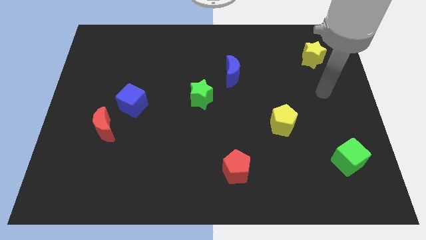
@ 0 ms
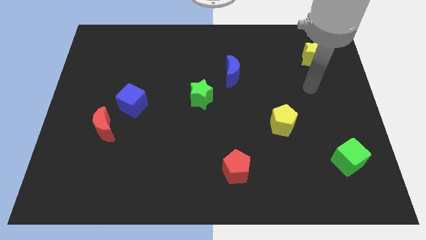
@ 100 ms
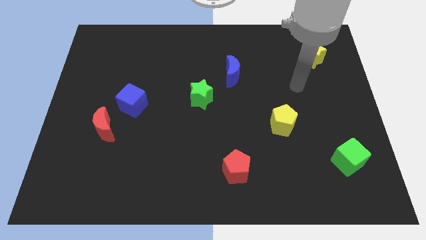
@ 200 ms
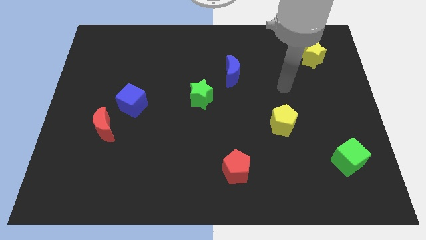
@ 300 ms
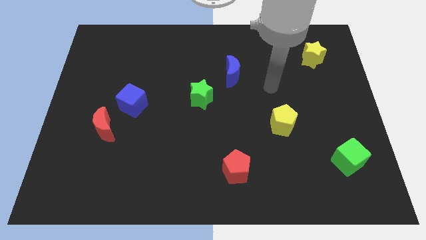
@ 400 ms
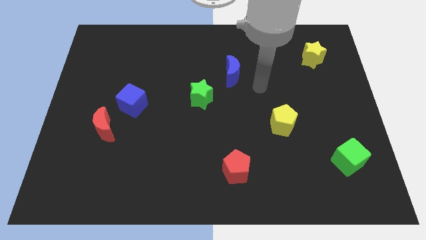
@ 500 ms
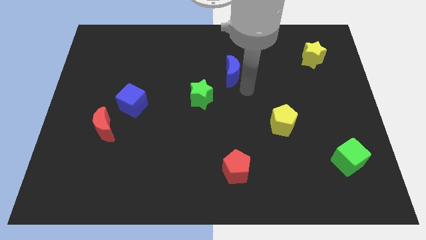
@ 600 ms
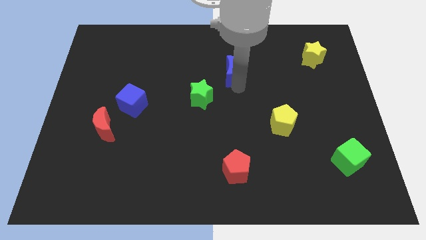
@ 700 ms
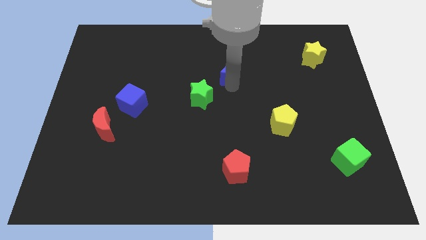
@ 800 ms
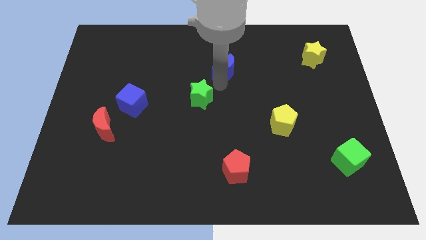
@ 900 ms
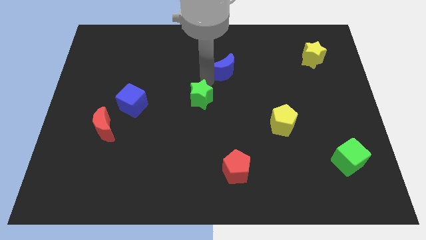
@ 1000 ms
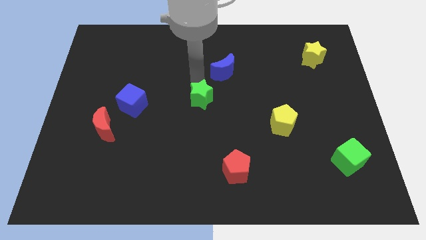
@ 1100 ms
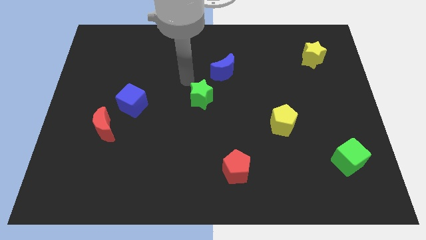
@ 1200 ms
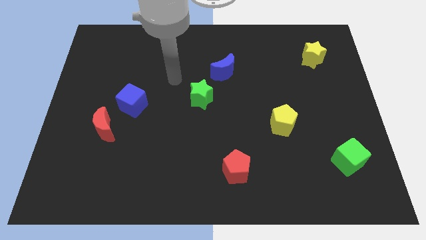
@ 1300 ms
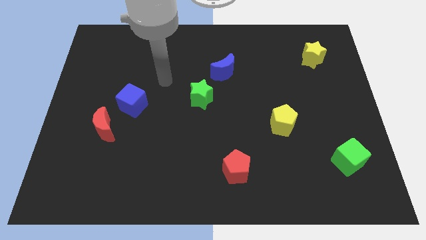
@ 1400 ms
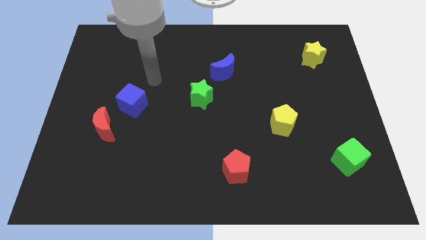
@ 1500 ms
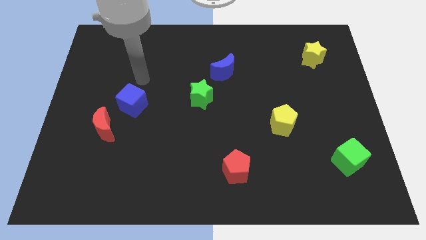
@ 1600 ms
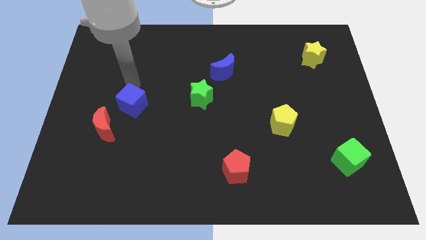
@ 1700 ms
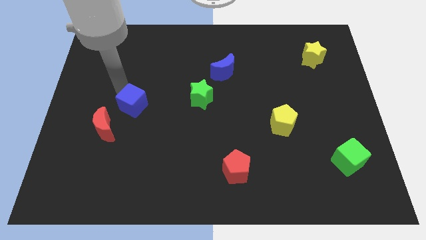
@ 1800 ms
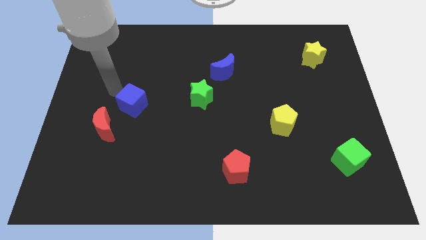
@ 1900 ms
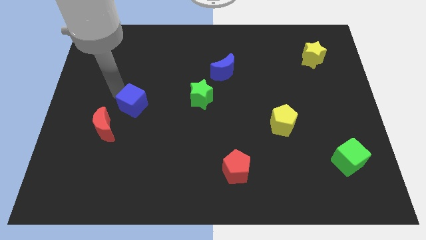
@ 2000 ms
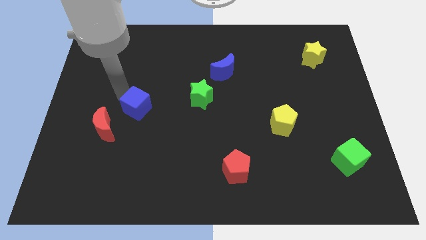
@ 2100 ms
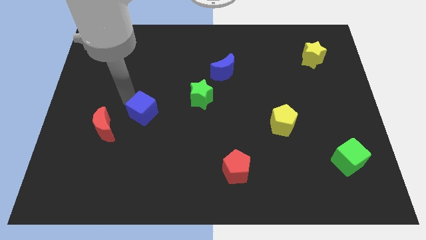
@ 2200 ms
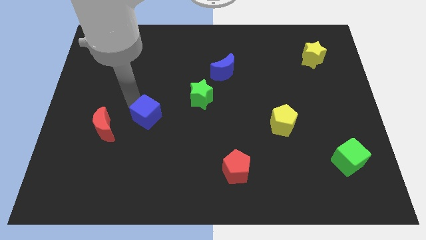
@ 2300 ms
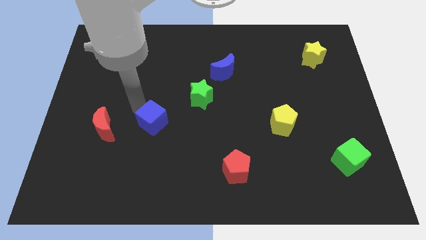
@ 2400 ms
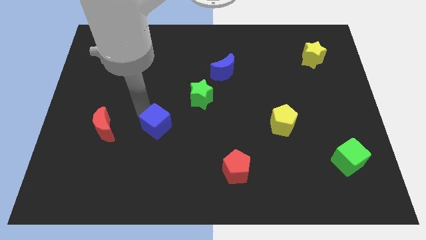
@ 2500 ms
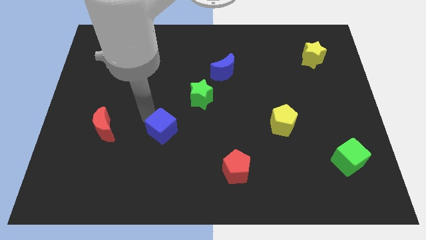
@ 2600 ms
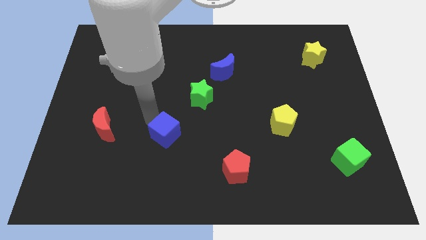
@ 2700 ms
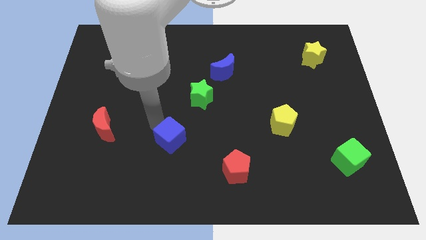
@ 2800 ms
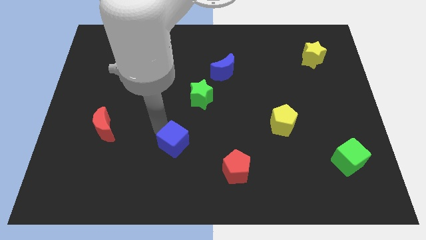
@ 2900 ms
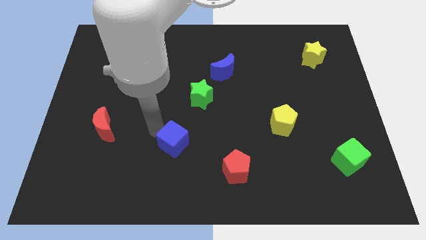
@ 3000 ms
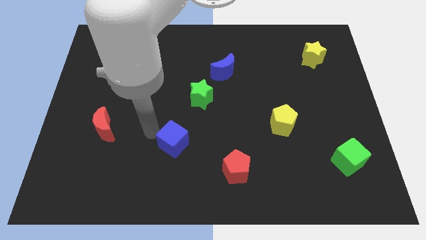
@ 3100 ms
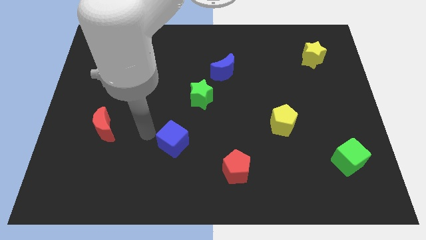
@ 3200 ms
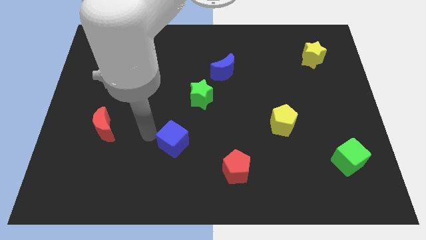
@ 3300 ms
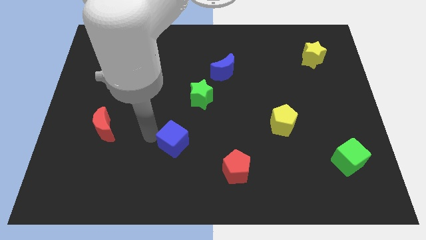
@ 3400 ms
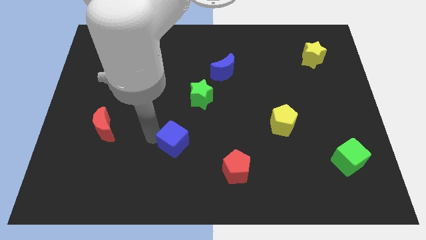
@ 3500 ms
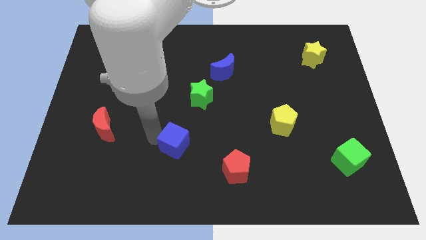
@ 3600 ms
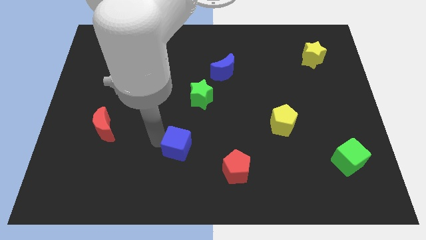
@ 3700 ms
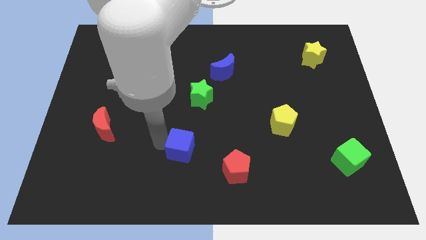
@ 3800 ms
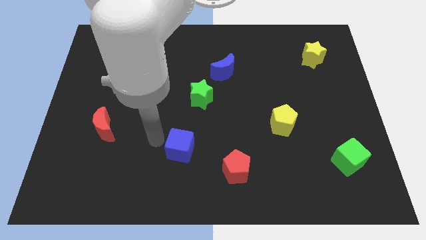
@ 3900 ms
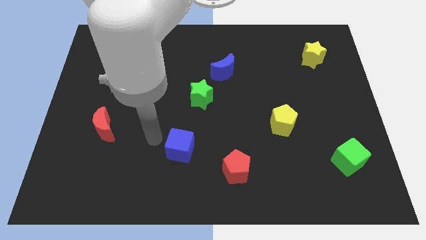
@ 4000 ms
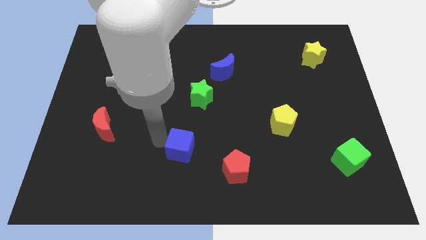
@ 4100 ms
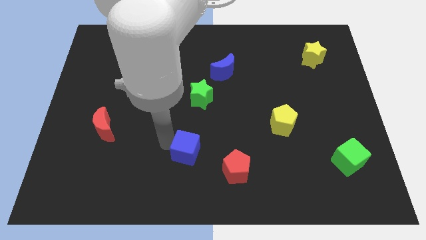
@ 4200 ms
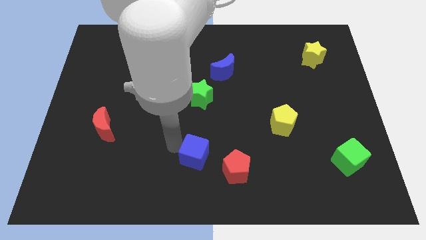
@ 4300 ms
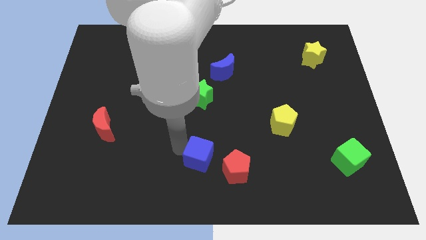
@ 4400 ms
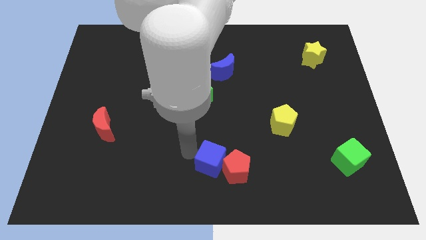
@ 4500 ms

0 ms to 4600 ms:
slide the blue cube next to the red pentagon

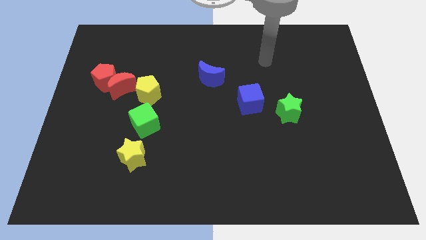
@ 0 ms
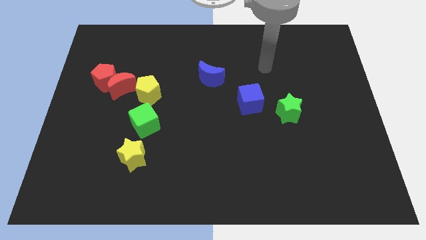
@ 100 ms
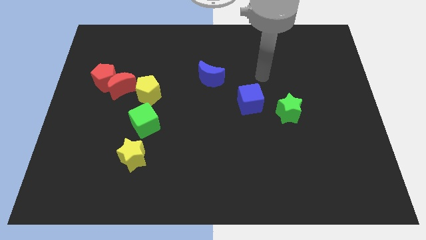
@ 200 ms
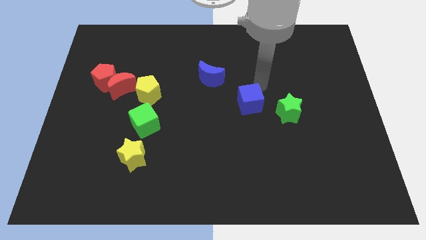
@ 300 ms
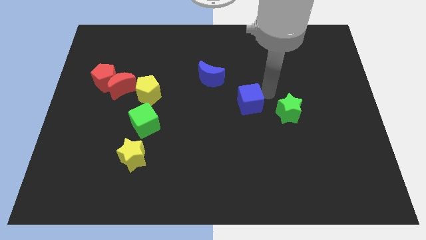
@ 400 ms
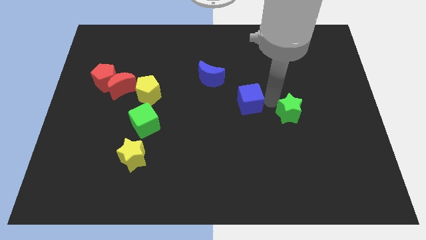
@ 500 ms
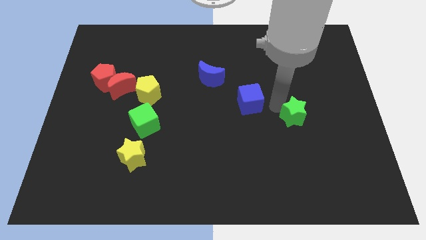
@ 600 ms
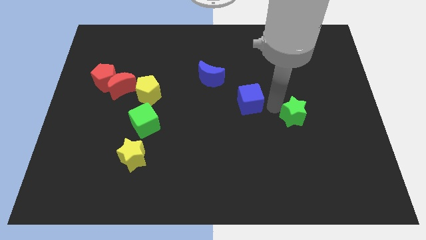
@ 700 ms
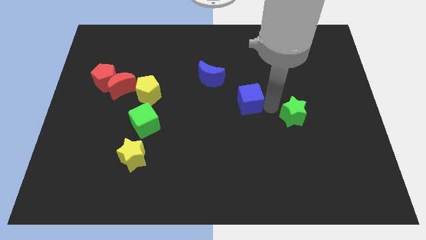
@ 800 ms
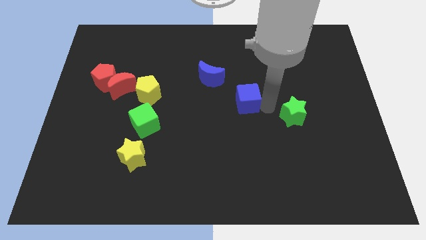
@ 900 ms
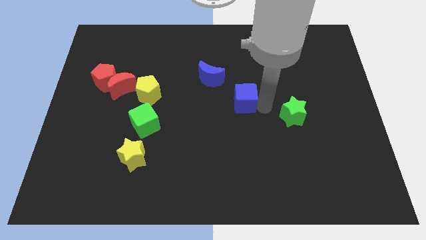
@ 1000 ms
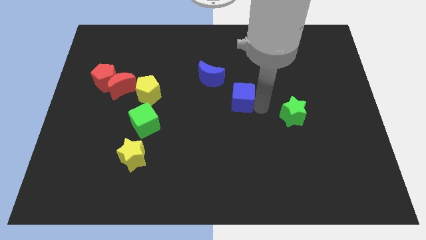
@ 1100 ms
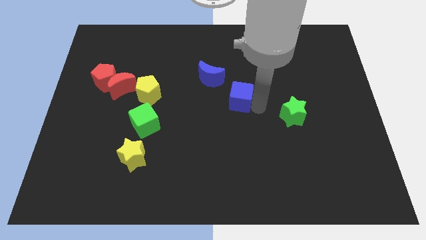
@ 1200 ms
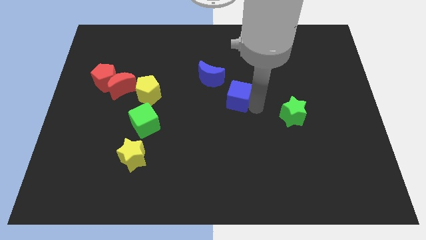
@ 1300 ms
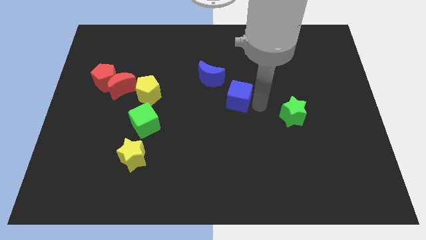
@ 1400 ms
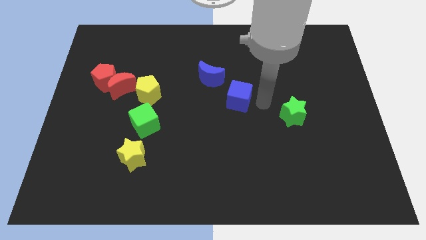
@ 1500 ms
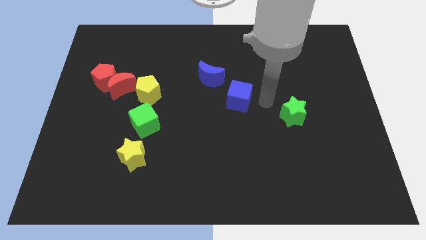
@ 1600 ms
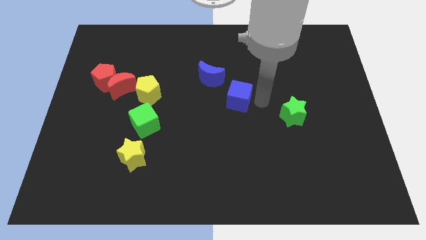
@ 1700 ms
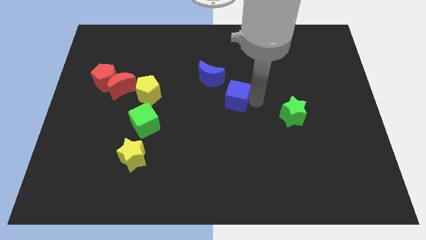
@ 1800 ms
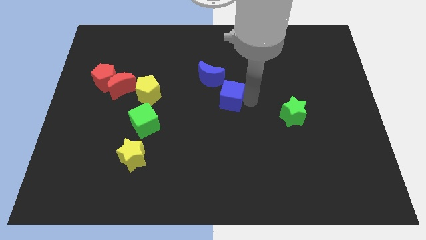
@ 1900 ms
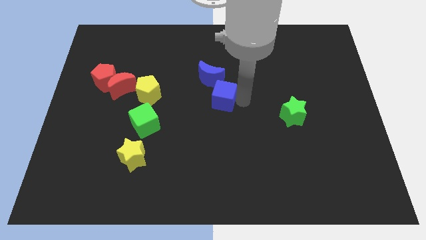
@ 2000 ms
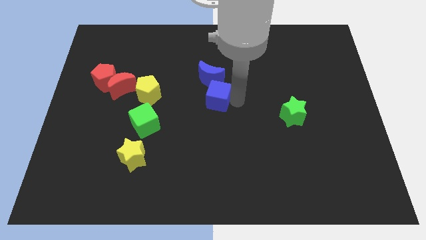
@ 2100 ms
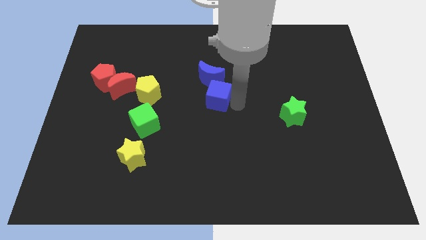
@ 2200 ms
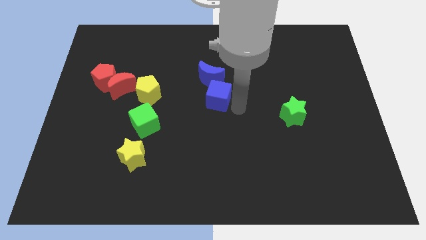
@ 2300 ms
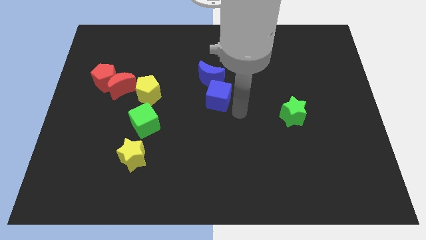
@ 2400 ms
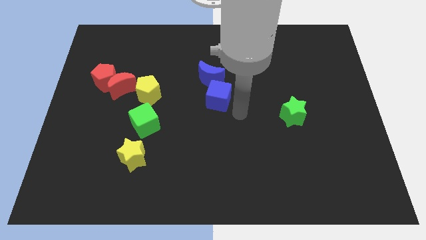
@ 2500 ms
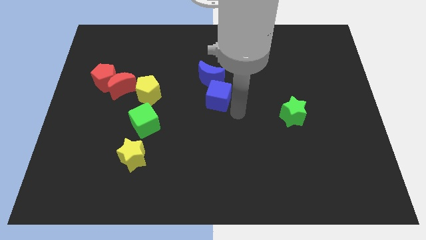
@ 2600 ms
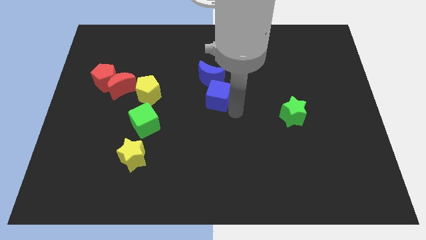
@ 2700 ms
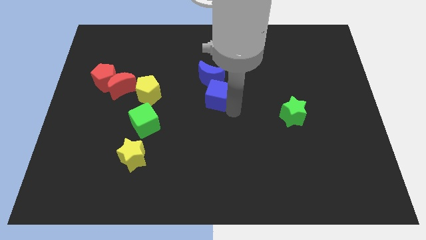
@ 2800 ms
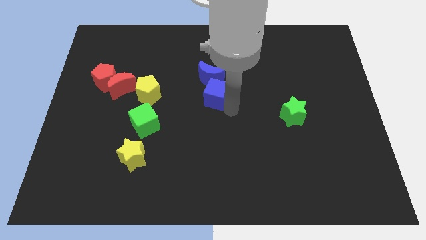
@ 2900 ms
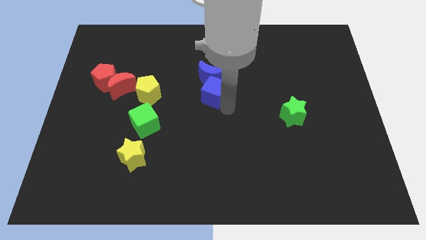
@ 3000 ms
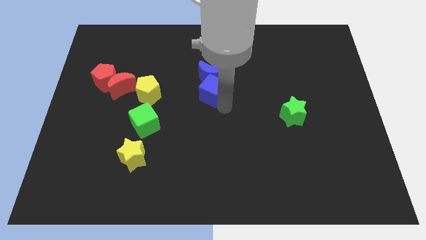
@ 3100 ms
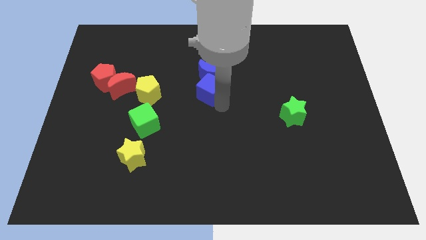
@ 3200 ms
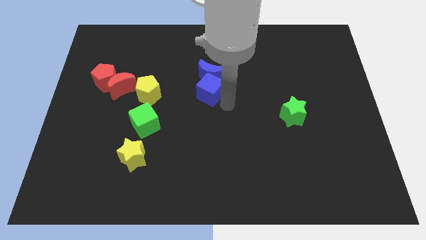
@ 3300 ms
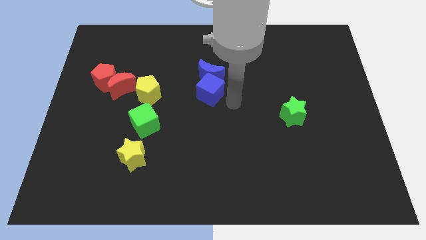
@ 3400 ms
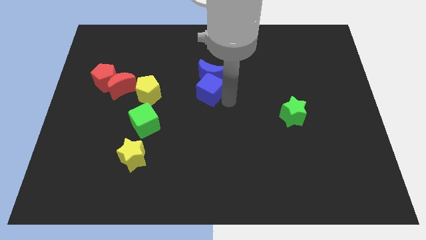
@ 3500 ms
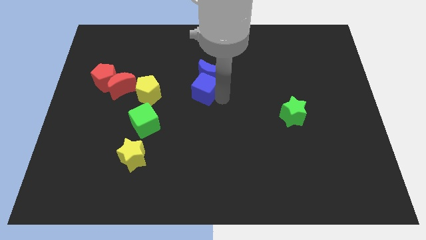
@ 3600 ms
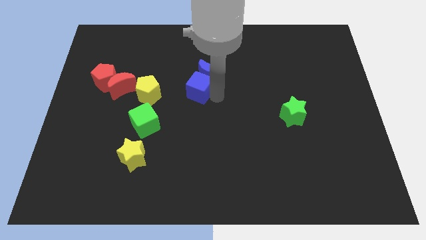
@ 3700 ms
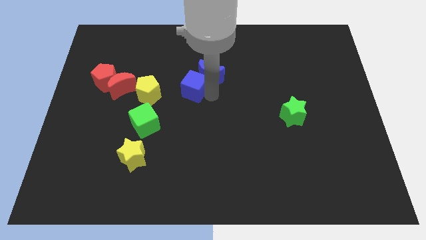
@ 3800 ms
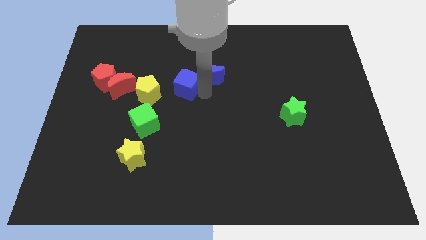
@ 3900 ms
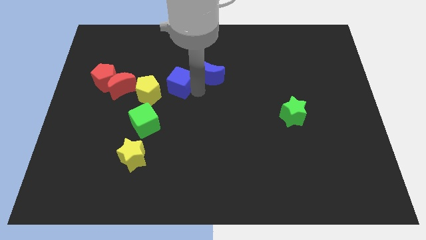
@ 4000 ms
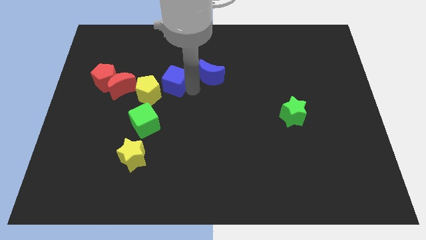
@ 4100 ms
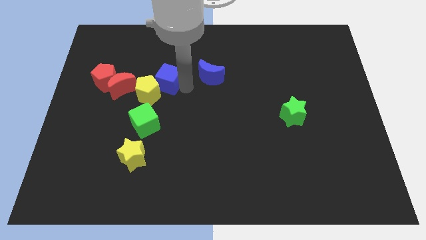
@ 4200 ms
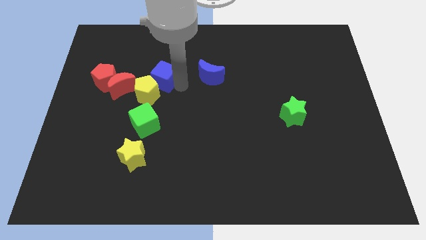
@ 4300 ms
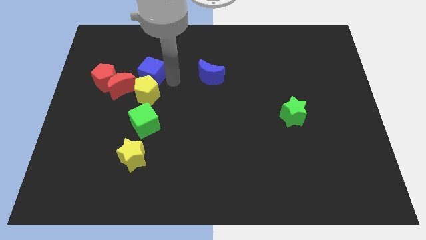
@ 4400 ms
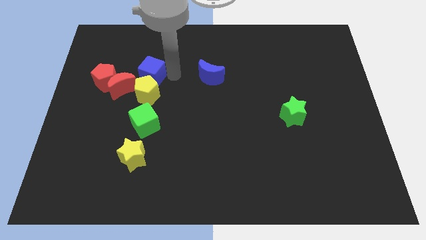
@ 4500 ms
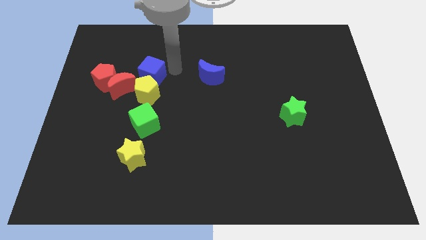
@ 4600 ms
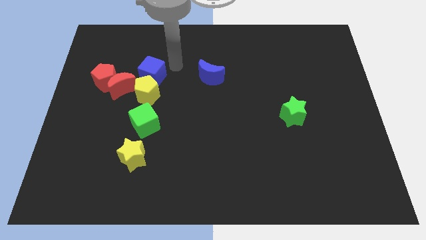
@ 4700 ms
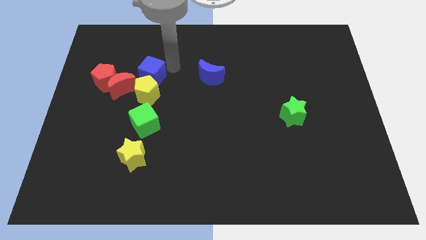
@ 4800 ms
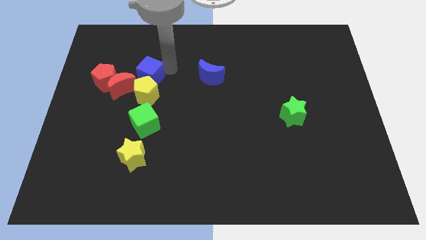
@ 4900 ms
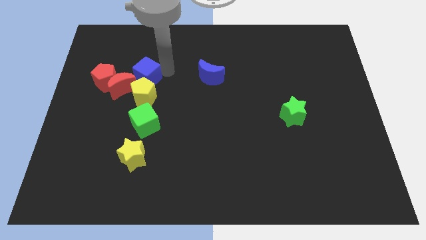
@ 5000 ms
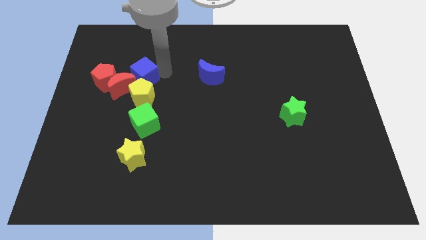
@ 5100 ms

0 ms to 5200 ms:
slide the blue cube next to the red moon
